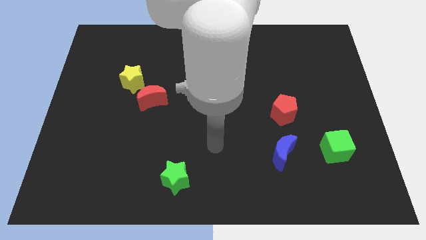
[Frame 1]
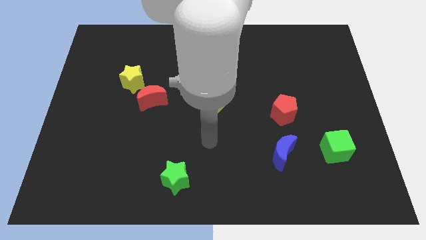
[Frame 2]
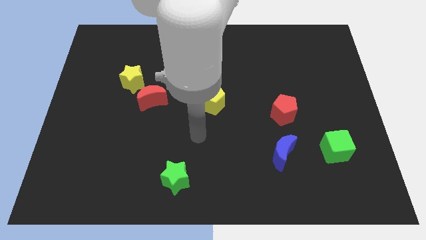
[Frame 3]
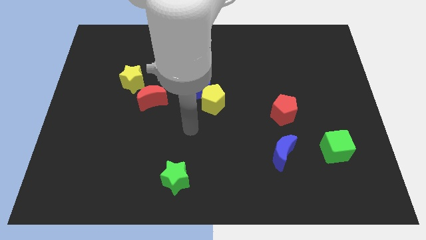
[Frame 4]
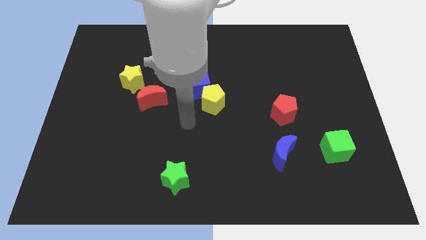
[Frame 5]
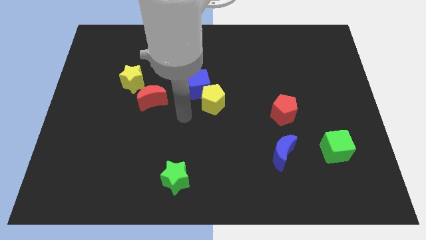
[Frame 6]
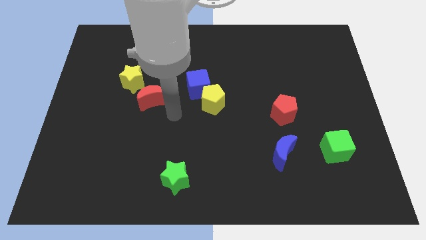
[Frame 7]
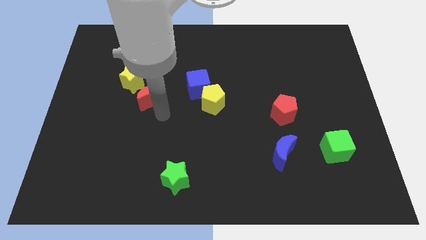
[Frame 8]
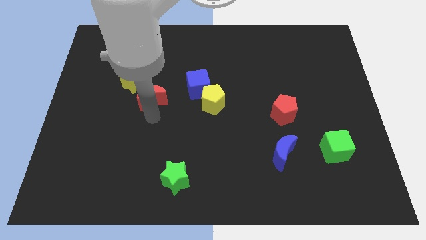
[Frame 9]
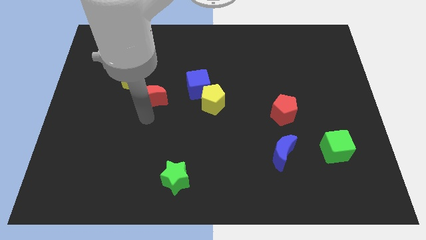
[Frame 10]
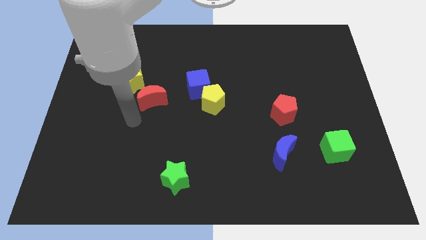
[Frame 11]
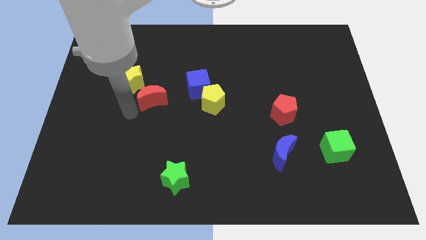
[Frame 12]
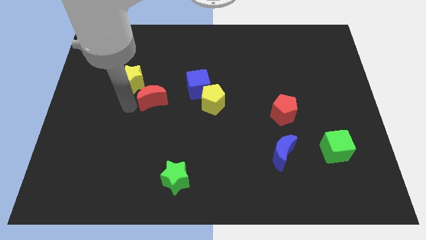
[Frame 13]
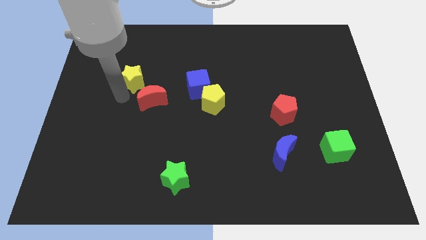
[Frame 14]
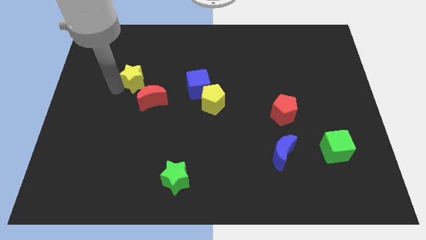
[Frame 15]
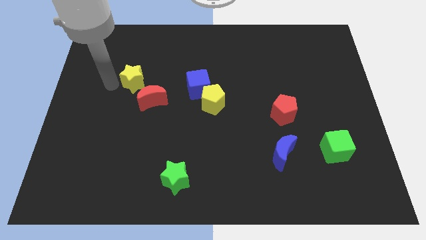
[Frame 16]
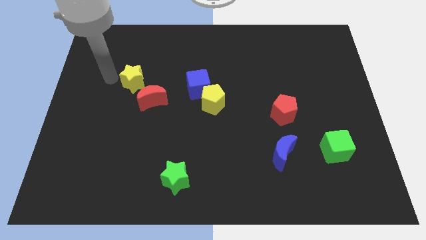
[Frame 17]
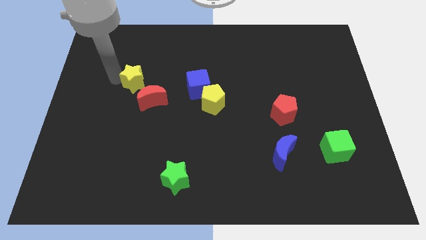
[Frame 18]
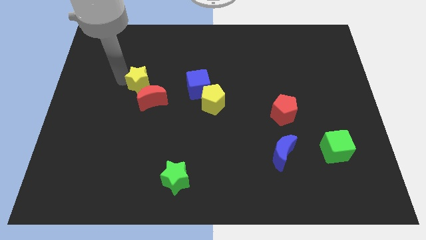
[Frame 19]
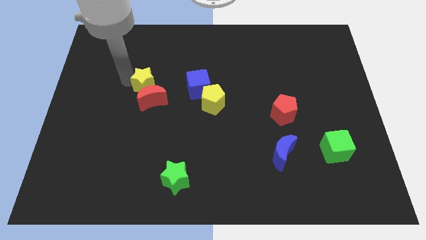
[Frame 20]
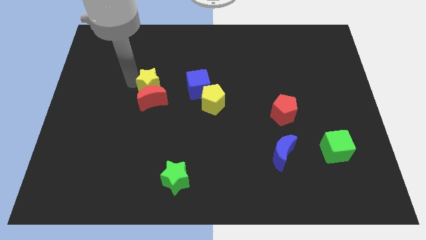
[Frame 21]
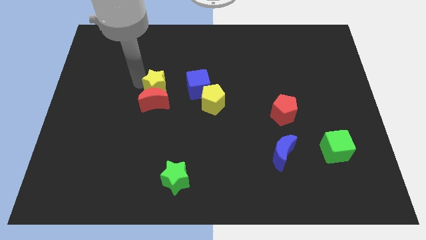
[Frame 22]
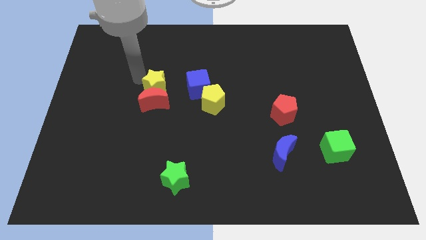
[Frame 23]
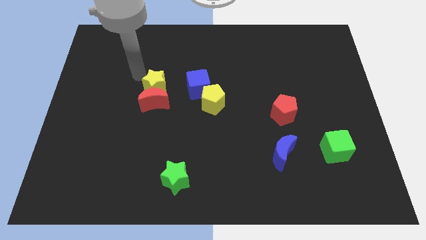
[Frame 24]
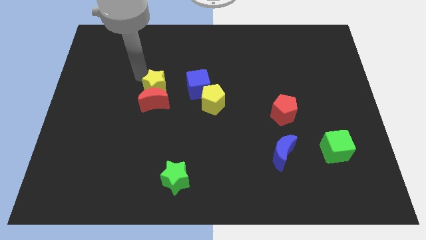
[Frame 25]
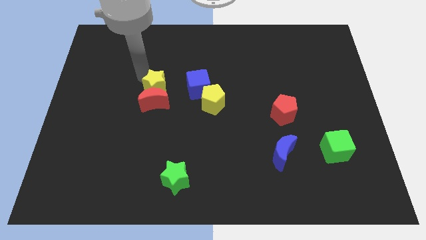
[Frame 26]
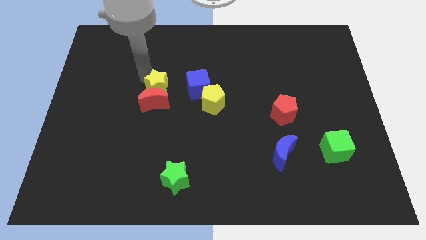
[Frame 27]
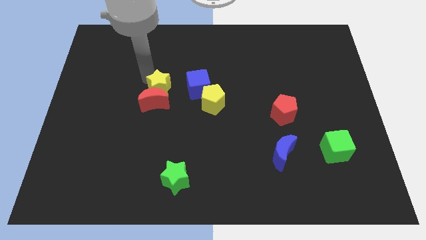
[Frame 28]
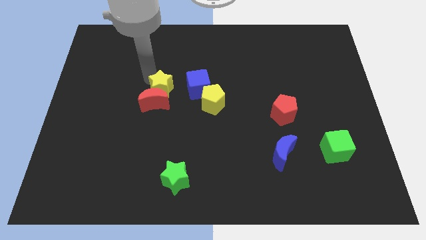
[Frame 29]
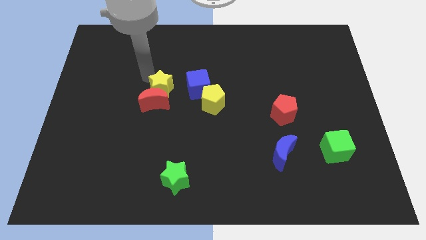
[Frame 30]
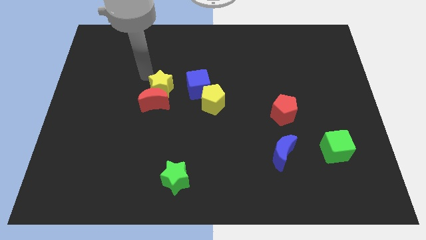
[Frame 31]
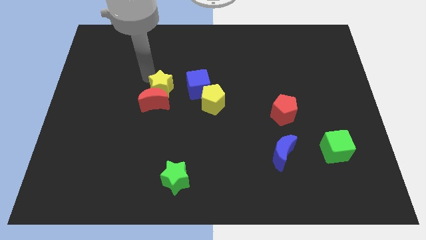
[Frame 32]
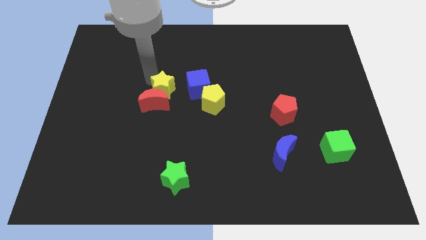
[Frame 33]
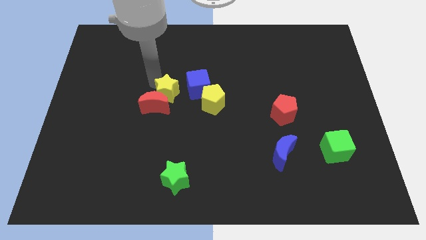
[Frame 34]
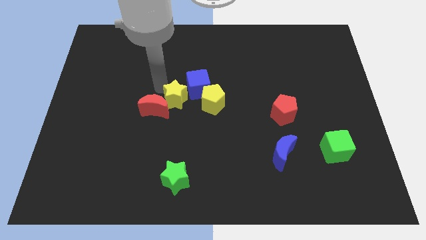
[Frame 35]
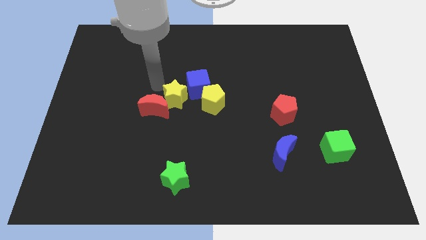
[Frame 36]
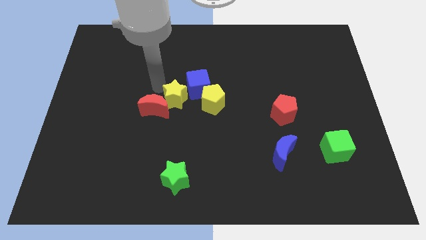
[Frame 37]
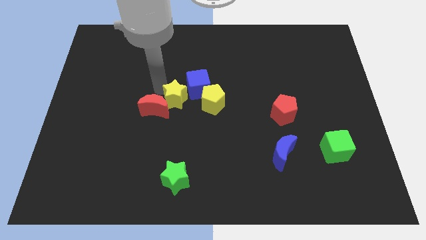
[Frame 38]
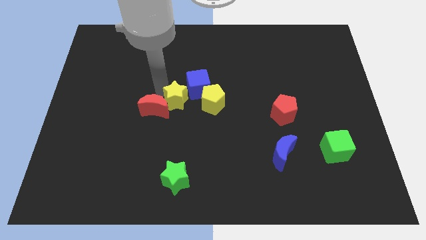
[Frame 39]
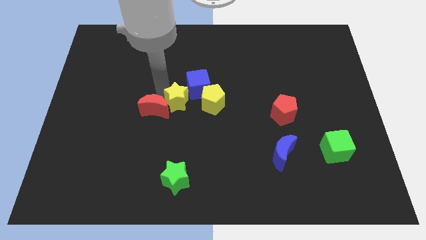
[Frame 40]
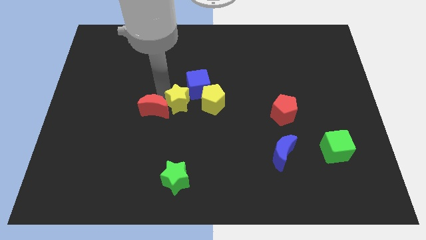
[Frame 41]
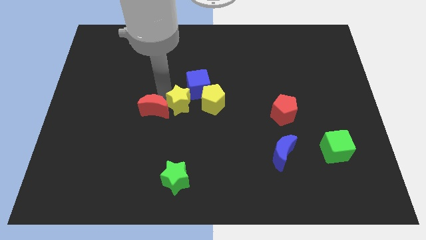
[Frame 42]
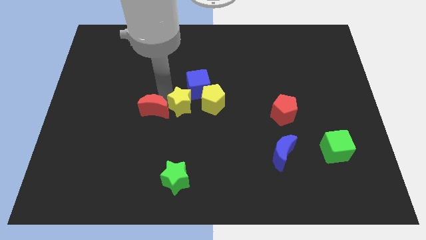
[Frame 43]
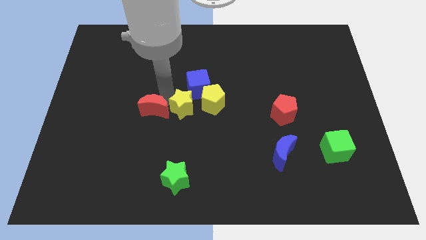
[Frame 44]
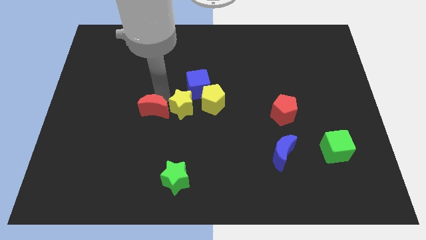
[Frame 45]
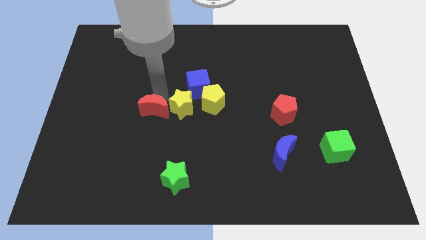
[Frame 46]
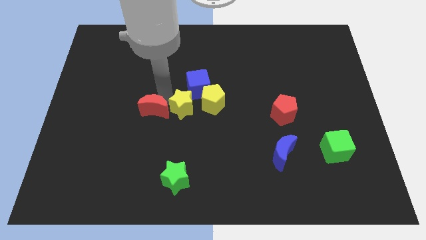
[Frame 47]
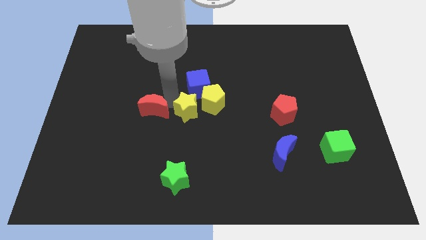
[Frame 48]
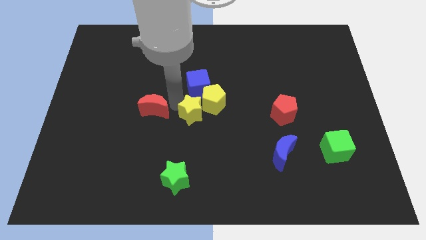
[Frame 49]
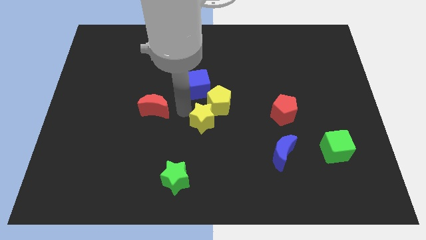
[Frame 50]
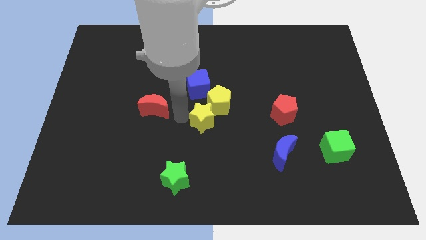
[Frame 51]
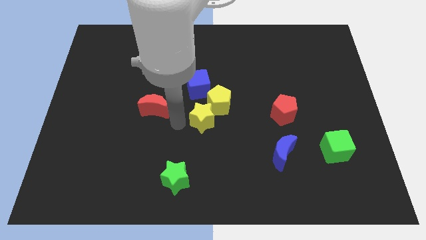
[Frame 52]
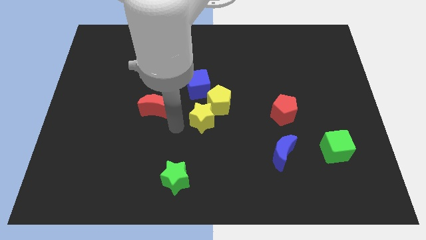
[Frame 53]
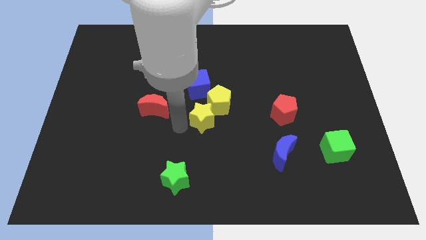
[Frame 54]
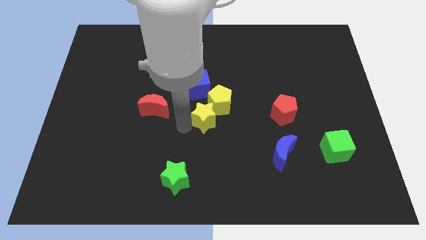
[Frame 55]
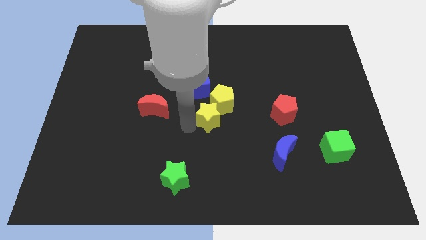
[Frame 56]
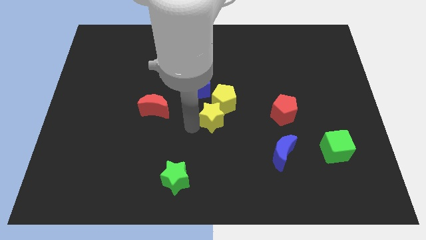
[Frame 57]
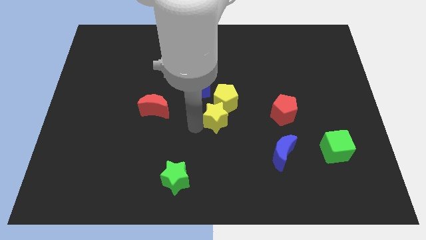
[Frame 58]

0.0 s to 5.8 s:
move the yellow star to the left of the red pentagon

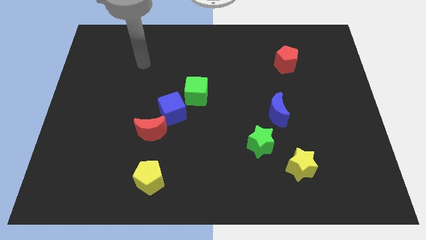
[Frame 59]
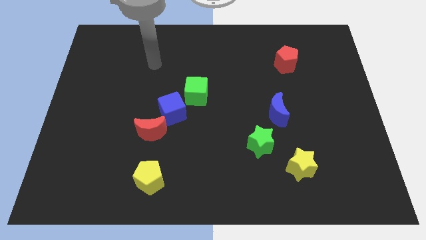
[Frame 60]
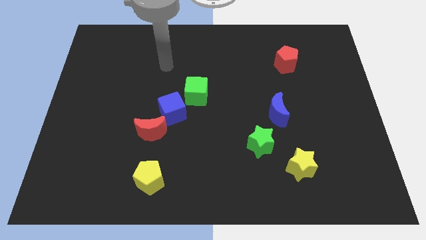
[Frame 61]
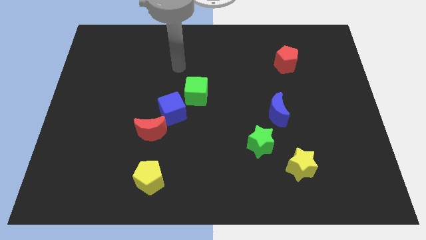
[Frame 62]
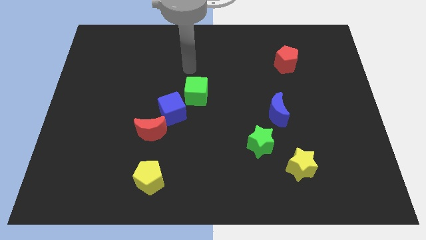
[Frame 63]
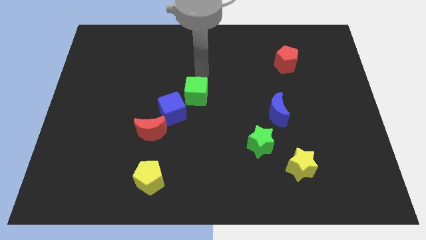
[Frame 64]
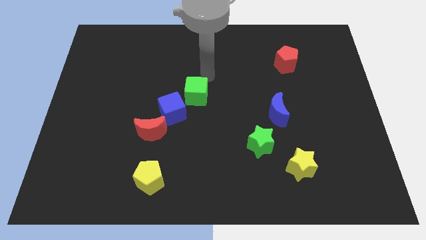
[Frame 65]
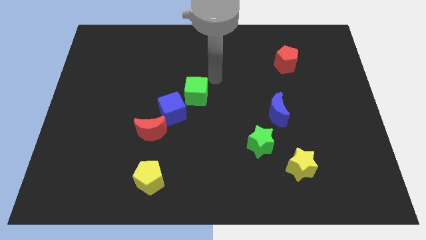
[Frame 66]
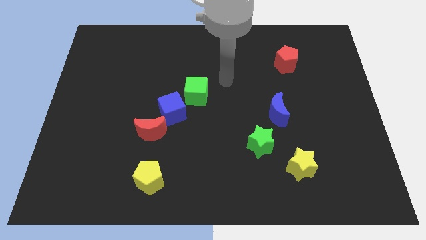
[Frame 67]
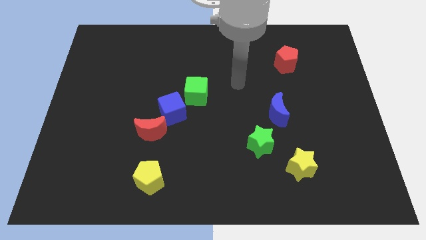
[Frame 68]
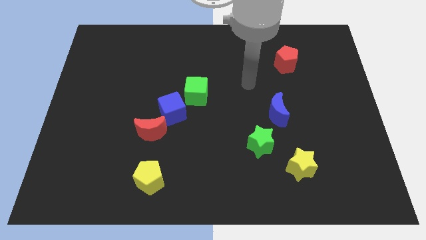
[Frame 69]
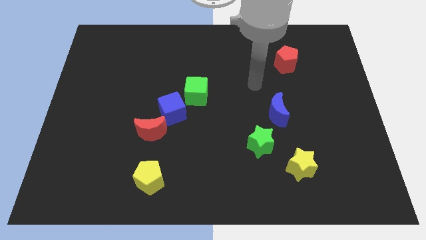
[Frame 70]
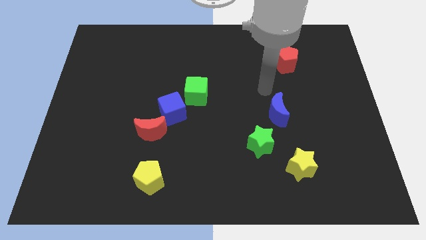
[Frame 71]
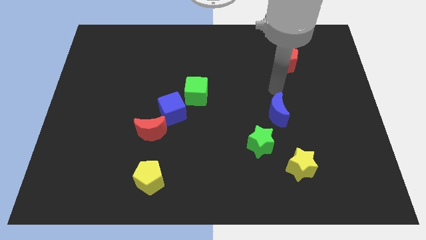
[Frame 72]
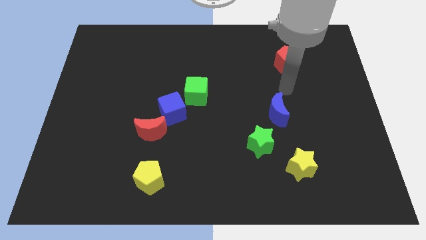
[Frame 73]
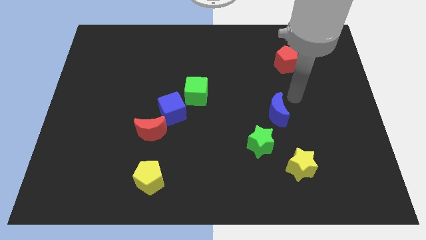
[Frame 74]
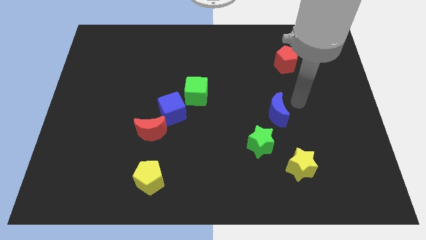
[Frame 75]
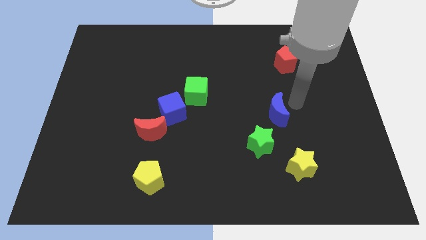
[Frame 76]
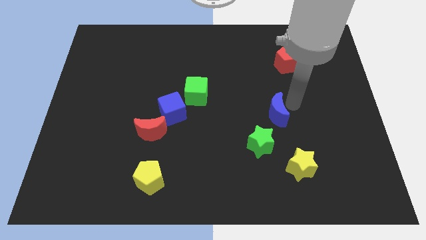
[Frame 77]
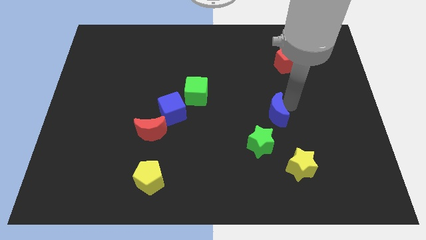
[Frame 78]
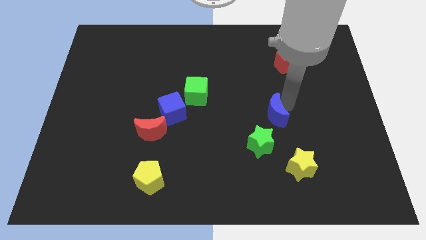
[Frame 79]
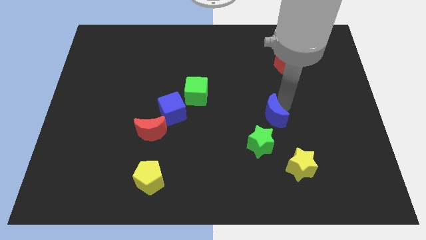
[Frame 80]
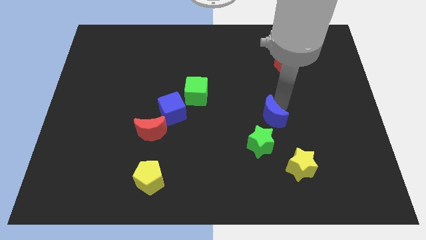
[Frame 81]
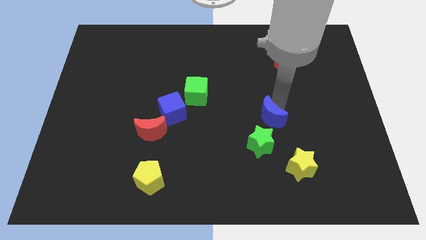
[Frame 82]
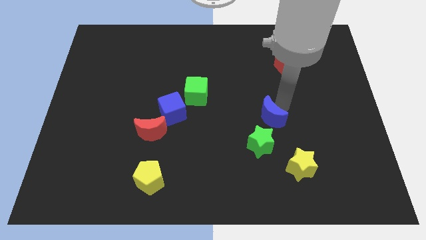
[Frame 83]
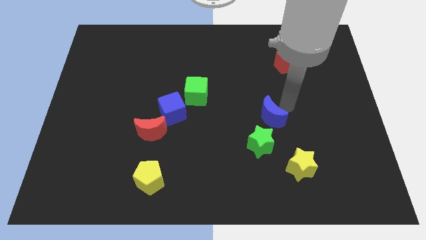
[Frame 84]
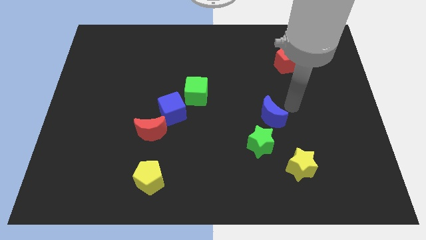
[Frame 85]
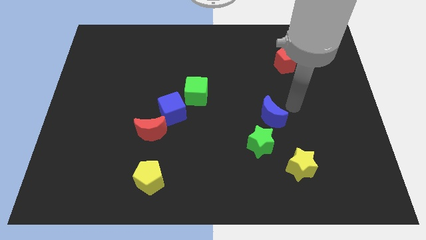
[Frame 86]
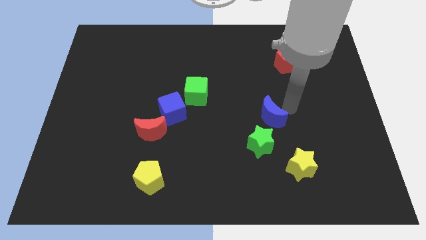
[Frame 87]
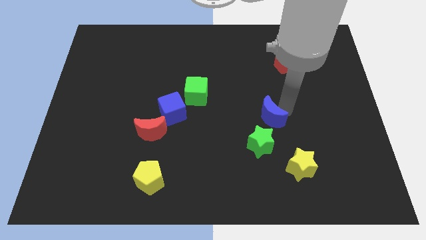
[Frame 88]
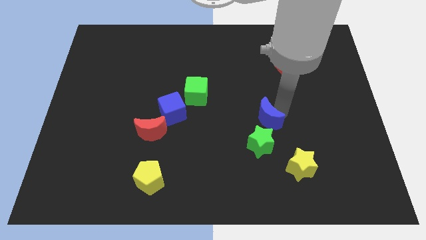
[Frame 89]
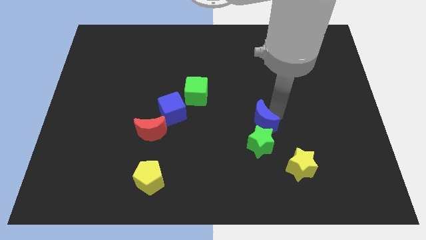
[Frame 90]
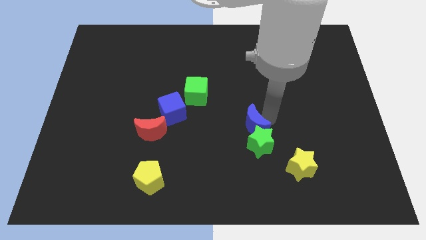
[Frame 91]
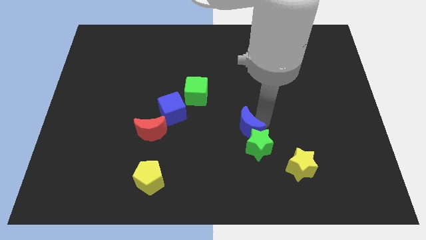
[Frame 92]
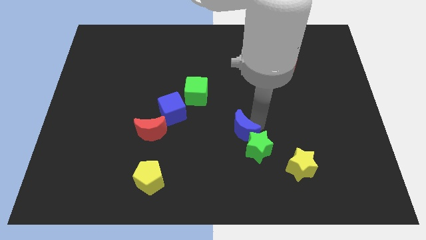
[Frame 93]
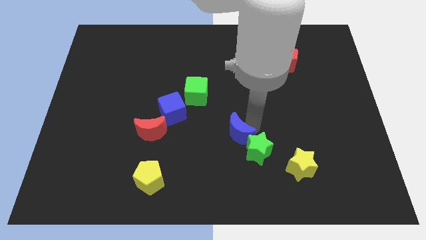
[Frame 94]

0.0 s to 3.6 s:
move the blue moon to the left side of the green star
